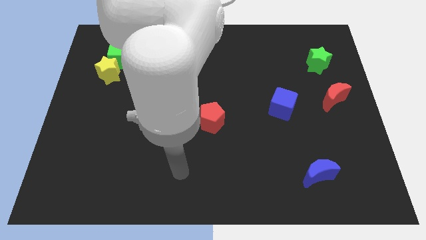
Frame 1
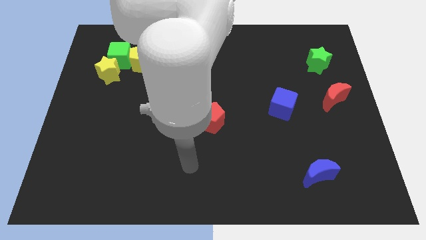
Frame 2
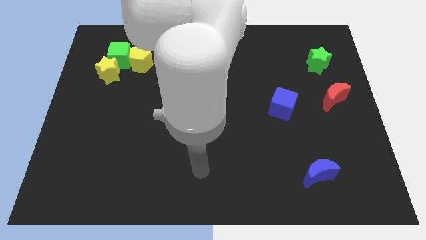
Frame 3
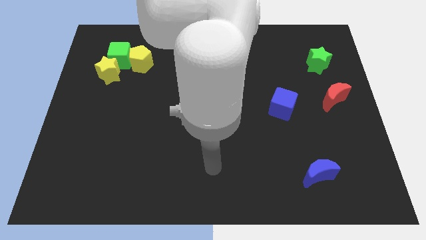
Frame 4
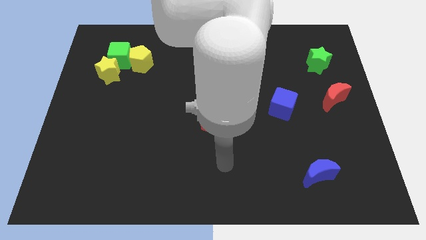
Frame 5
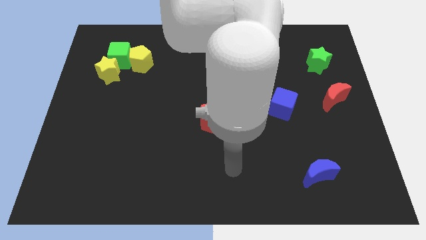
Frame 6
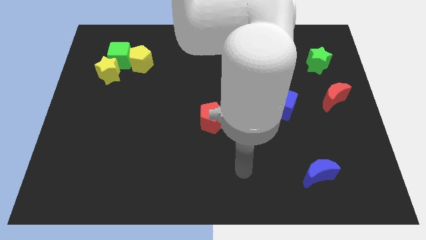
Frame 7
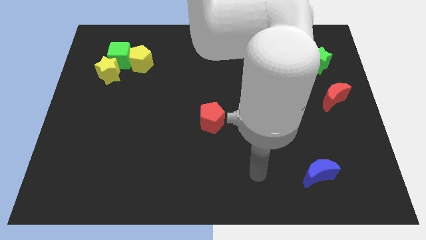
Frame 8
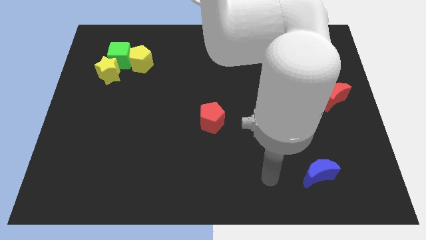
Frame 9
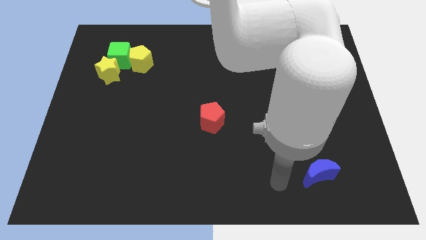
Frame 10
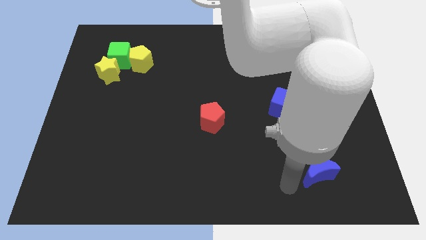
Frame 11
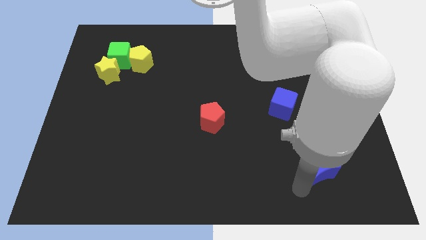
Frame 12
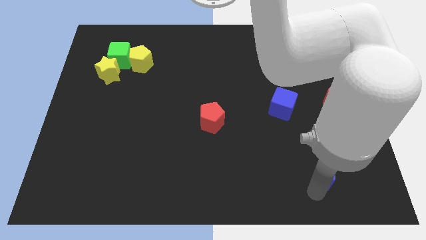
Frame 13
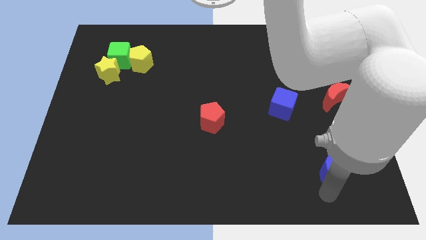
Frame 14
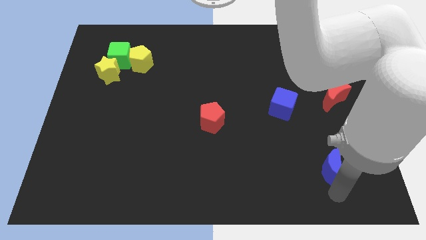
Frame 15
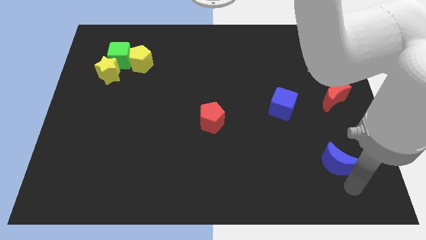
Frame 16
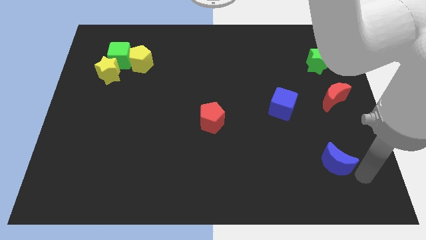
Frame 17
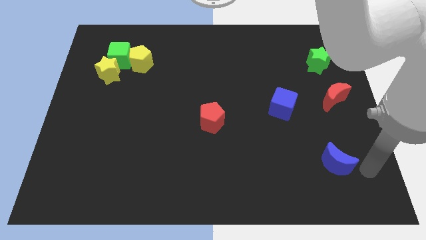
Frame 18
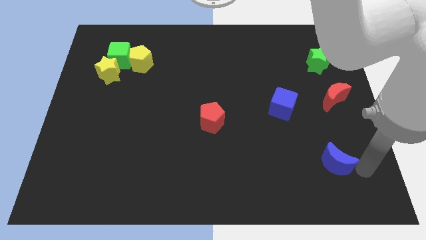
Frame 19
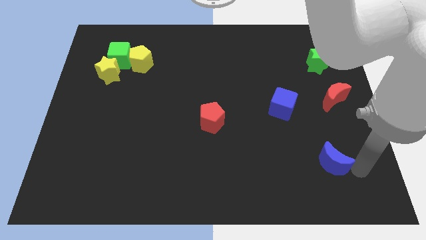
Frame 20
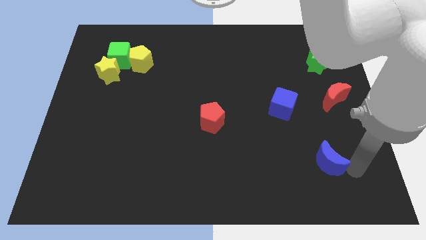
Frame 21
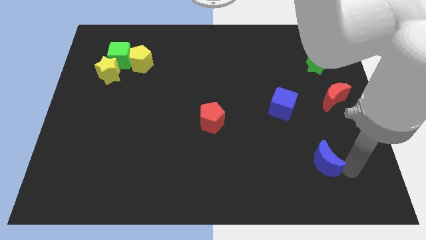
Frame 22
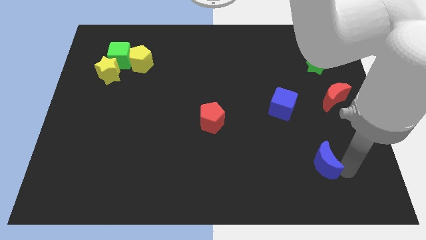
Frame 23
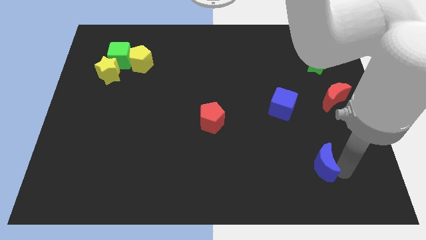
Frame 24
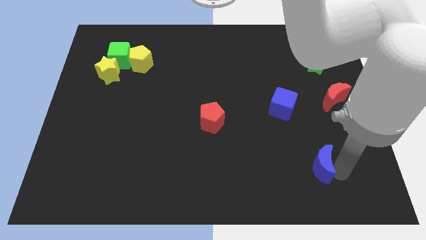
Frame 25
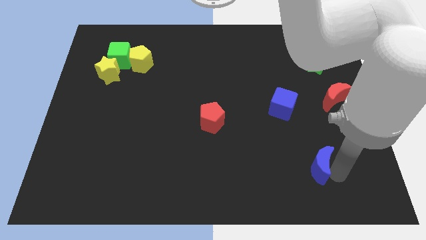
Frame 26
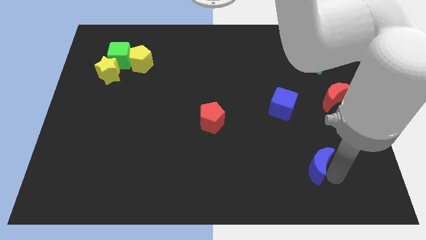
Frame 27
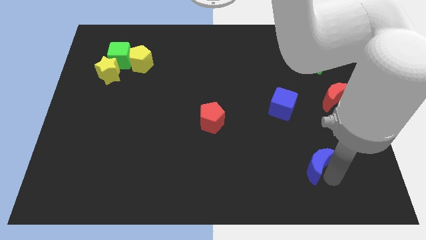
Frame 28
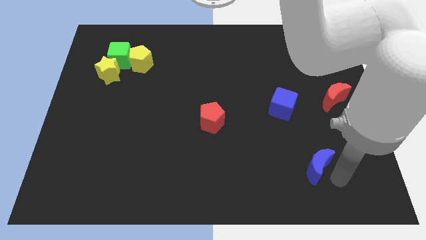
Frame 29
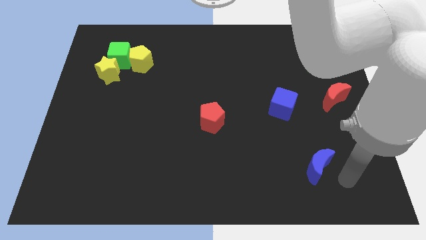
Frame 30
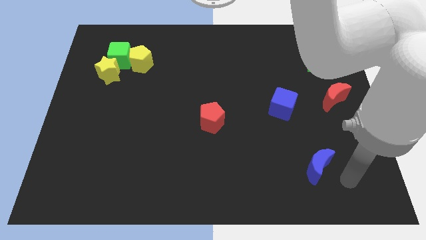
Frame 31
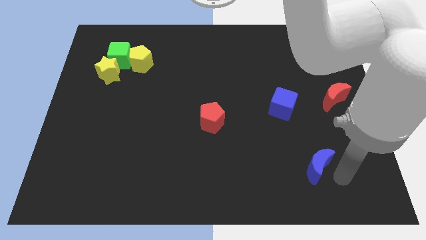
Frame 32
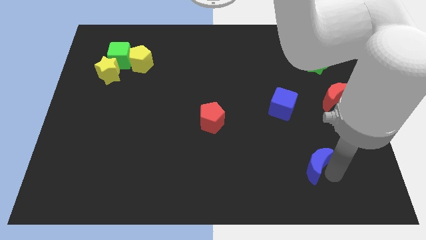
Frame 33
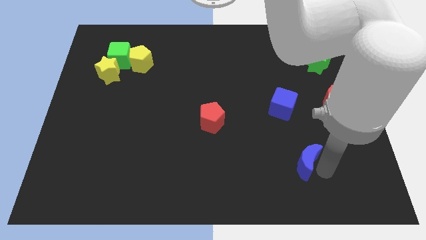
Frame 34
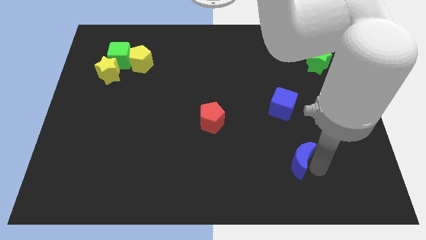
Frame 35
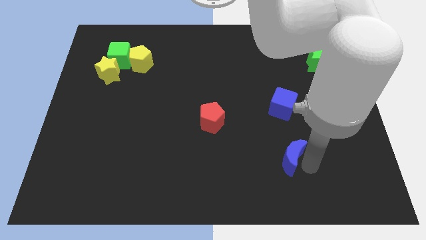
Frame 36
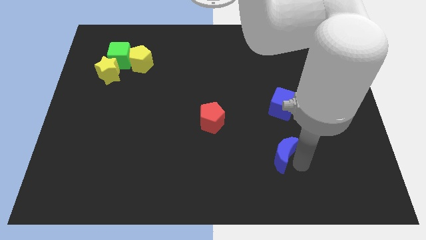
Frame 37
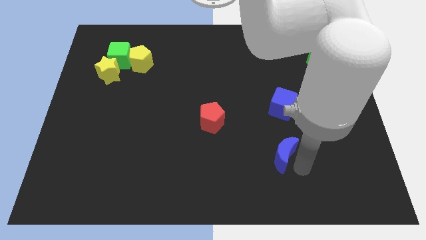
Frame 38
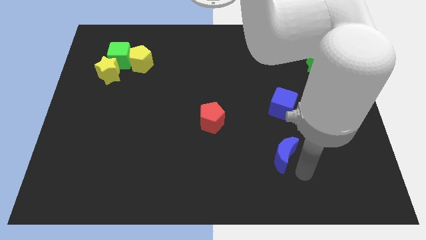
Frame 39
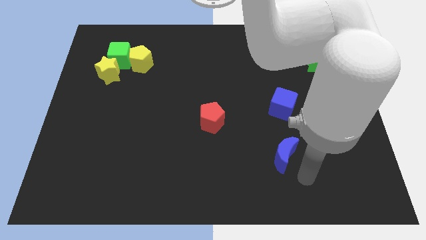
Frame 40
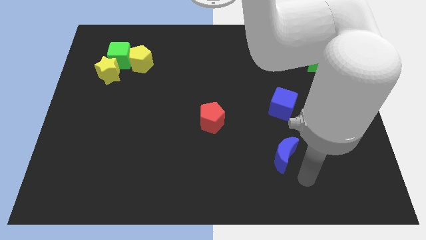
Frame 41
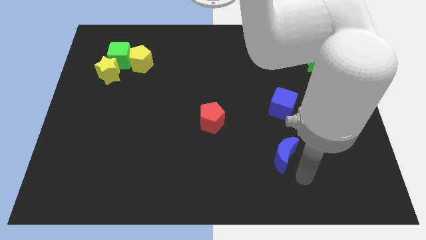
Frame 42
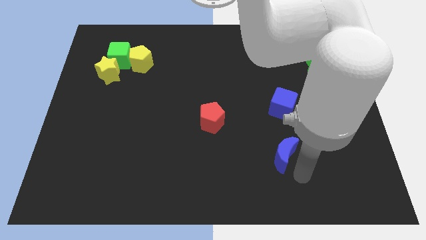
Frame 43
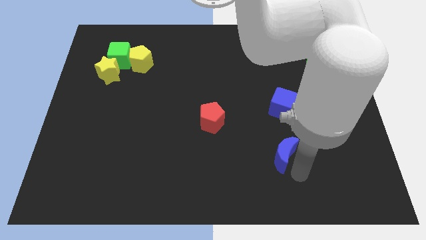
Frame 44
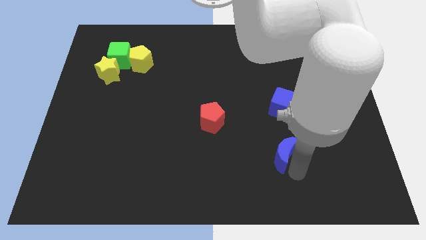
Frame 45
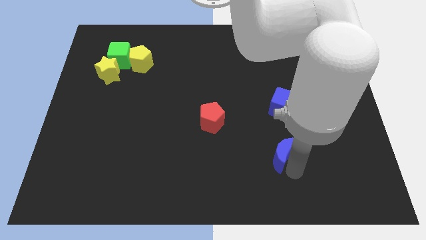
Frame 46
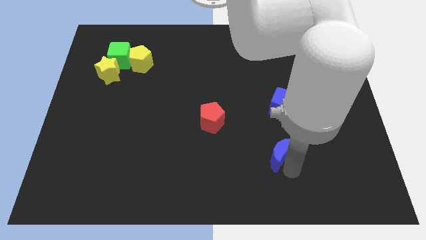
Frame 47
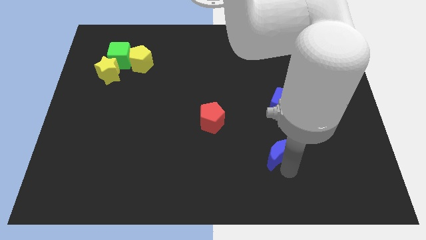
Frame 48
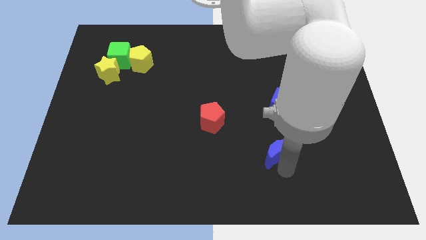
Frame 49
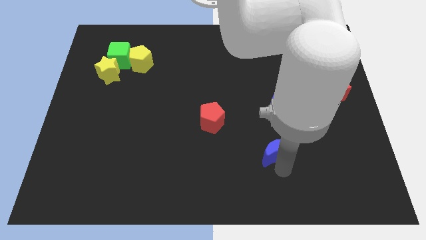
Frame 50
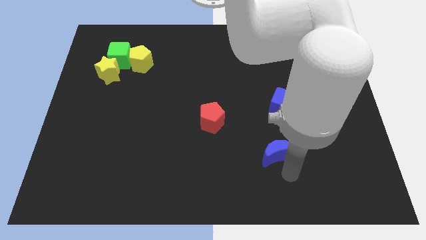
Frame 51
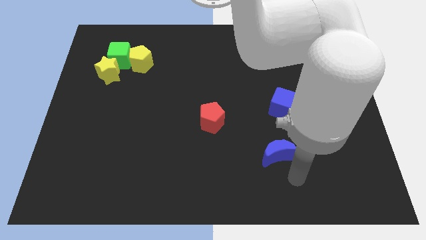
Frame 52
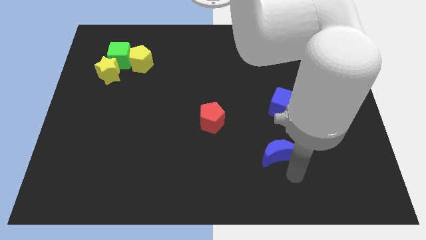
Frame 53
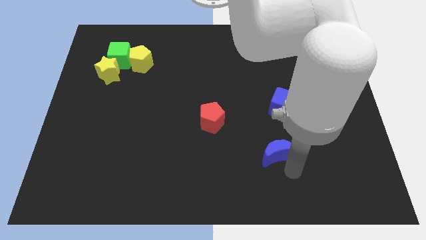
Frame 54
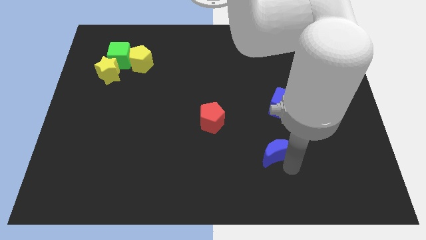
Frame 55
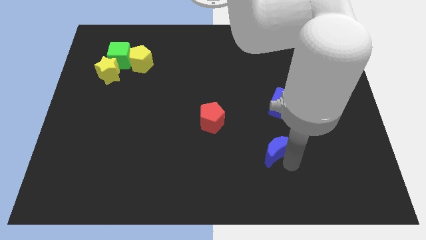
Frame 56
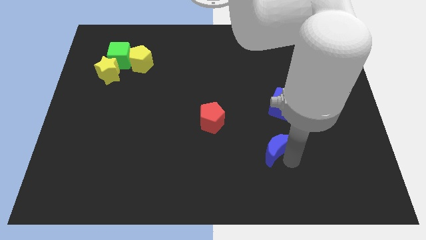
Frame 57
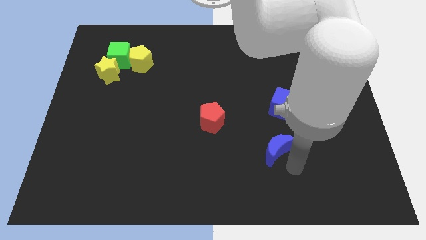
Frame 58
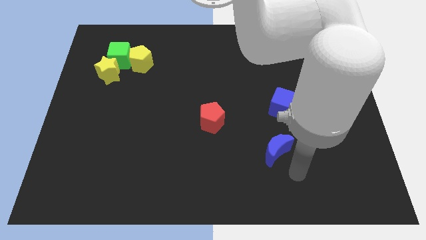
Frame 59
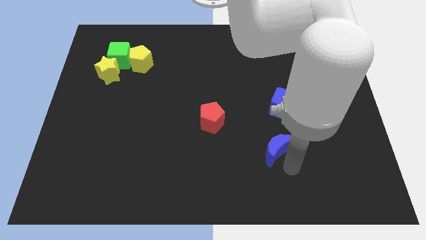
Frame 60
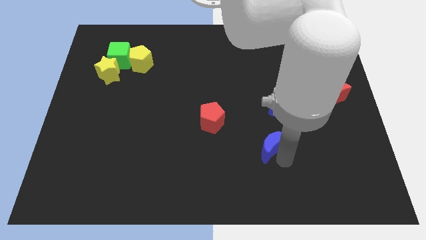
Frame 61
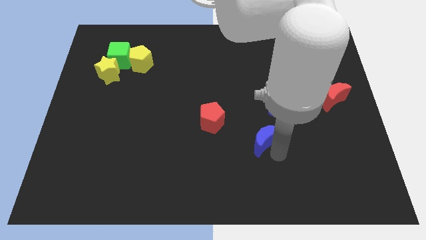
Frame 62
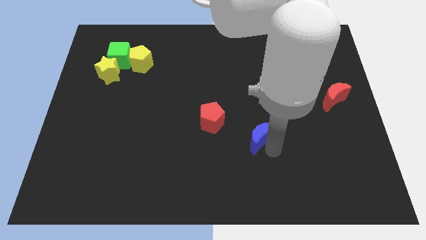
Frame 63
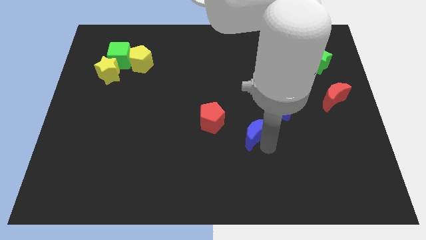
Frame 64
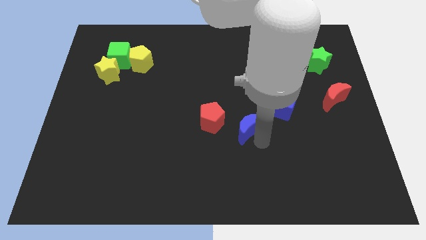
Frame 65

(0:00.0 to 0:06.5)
slide the blue moon to the center of the board

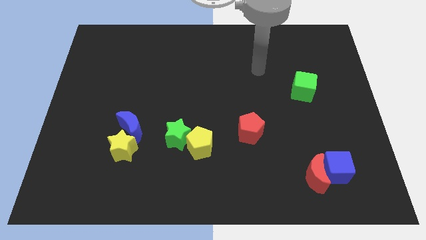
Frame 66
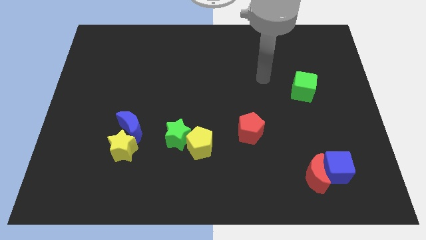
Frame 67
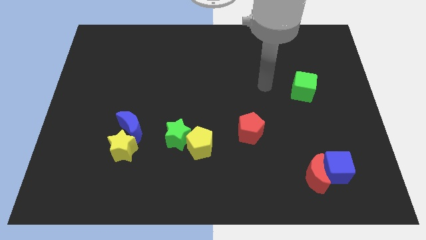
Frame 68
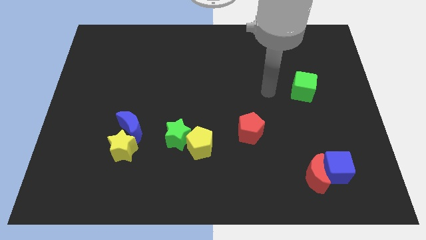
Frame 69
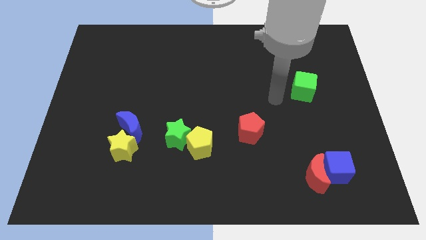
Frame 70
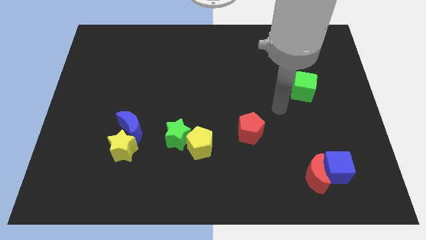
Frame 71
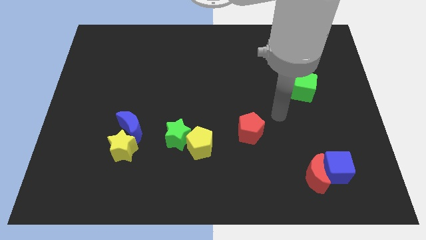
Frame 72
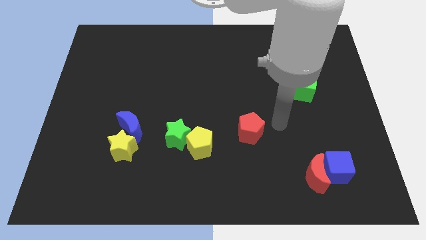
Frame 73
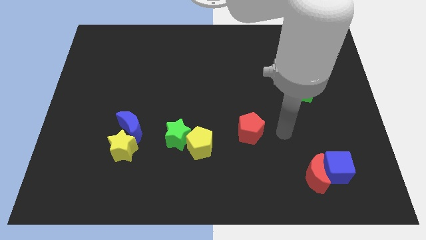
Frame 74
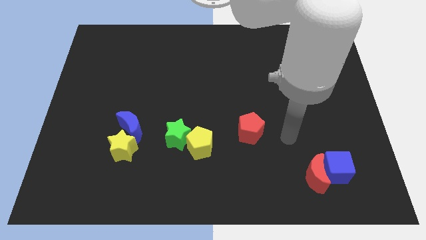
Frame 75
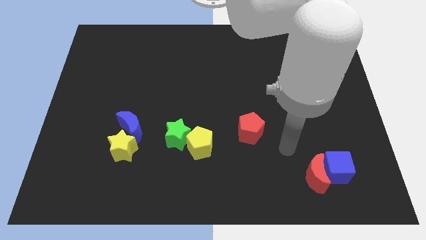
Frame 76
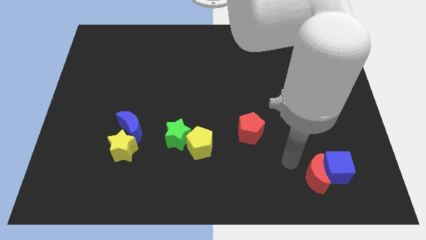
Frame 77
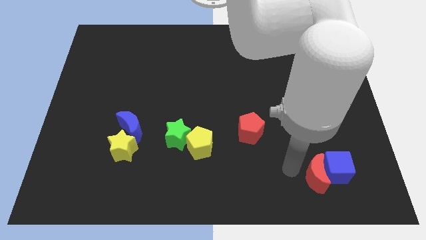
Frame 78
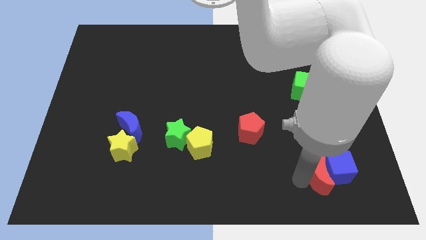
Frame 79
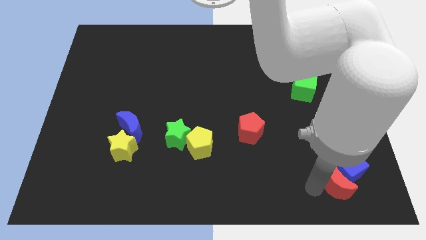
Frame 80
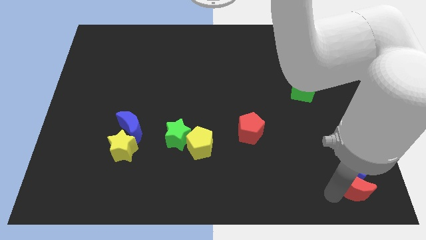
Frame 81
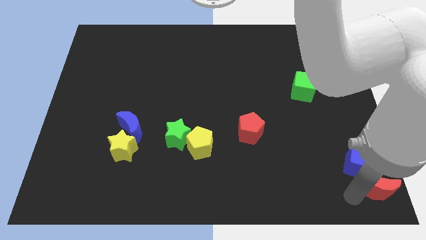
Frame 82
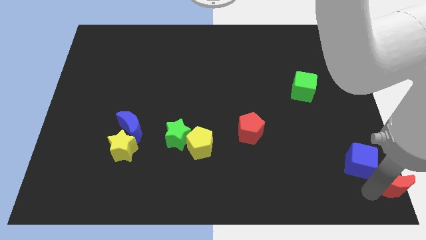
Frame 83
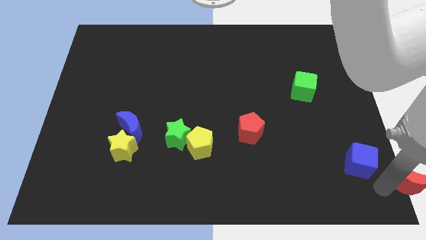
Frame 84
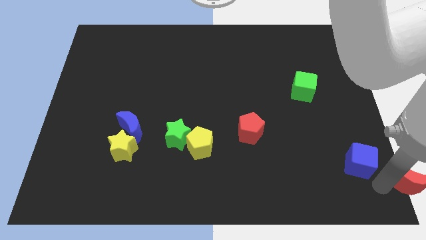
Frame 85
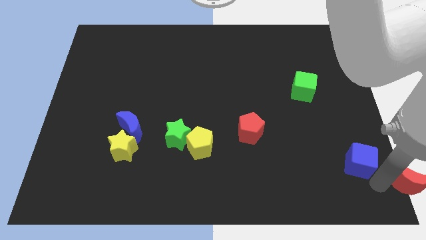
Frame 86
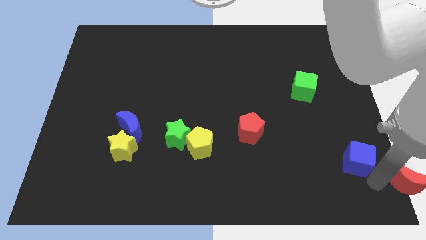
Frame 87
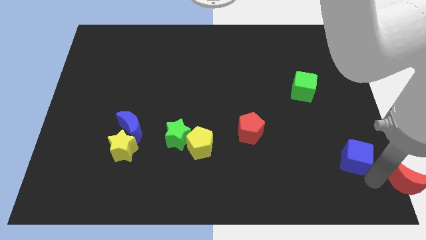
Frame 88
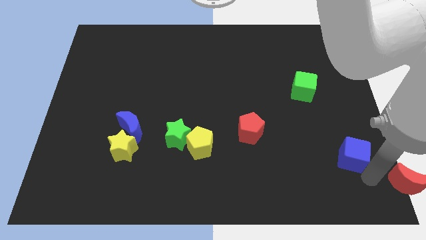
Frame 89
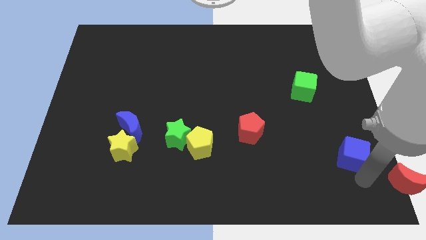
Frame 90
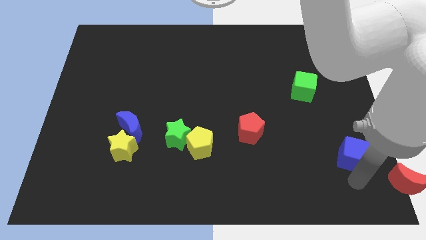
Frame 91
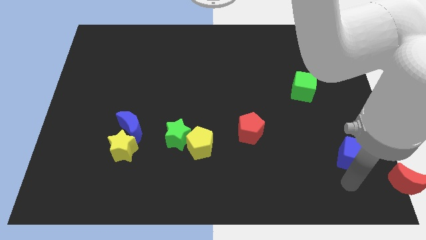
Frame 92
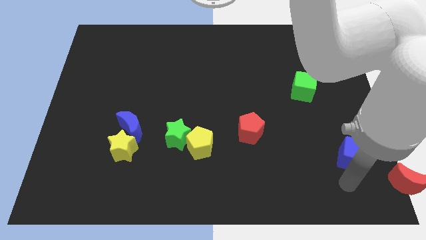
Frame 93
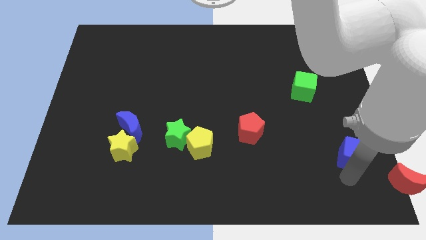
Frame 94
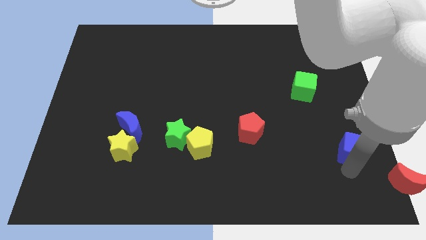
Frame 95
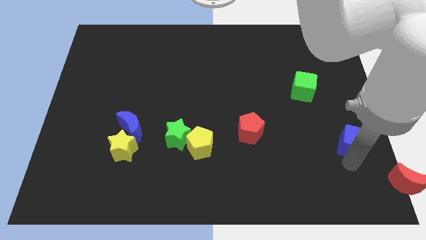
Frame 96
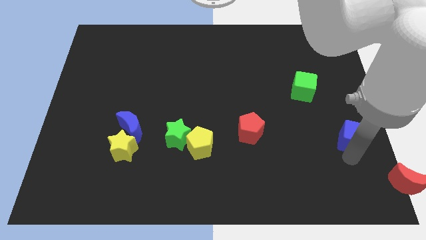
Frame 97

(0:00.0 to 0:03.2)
push the blue cube to the right side of the board
